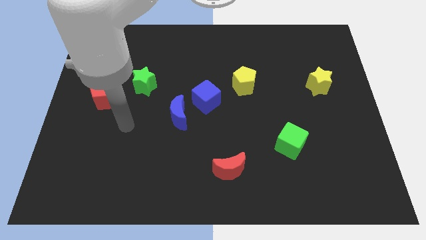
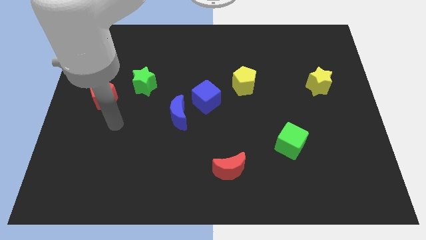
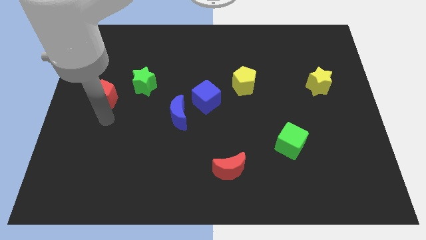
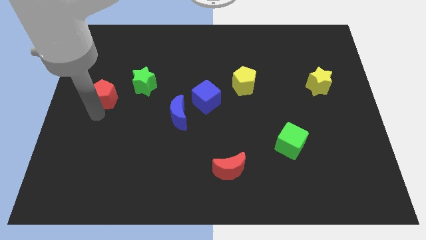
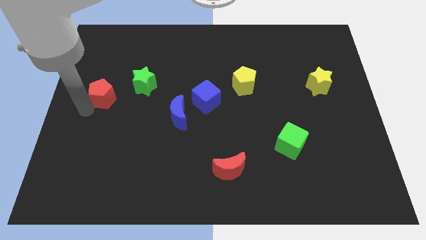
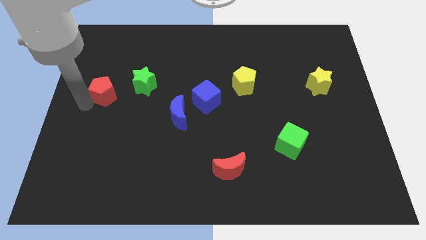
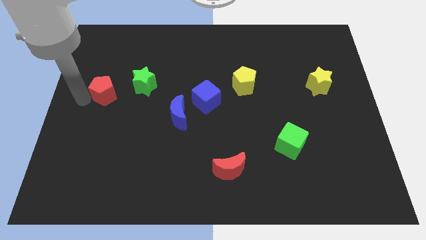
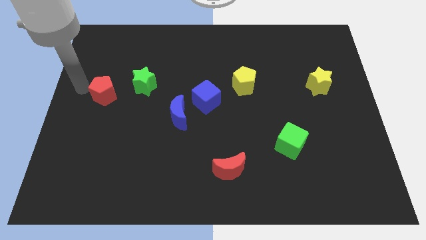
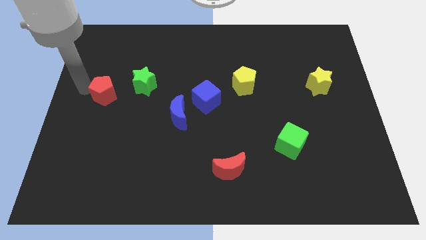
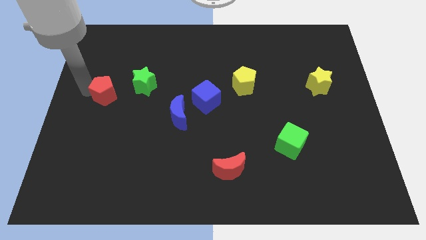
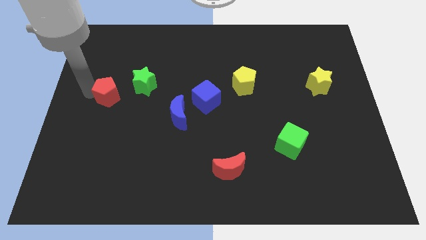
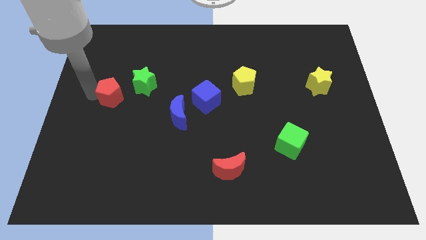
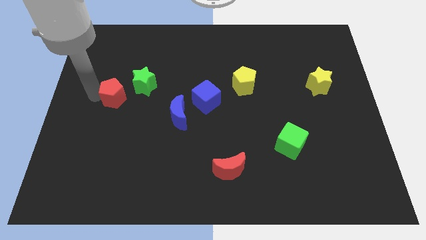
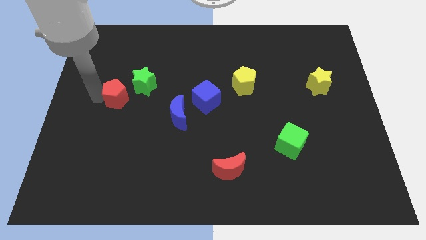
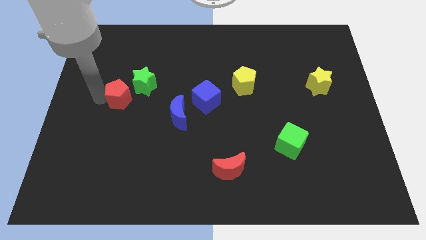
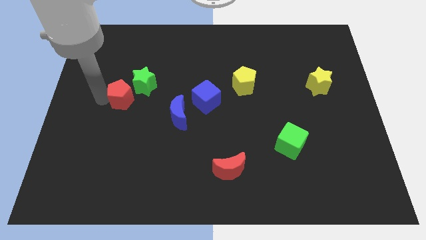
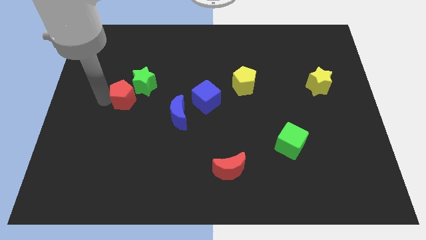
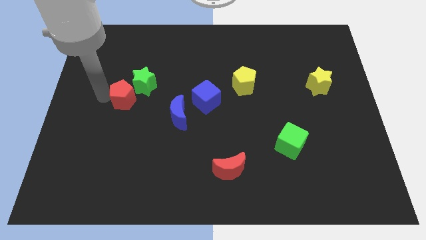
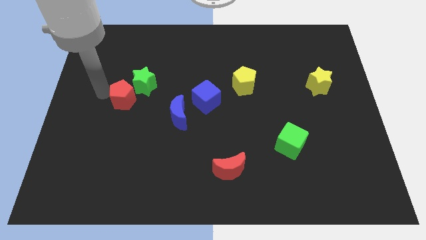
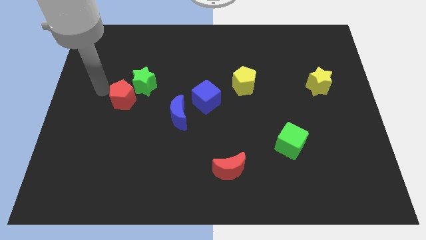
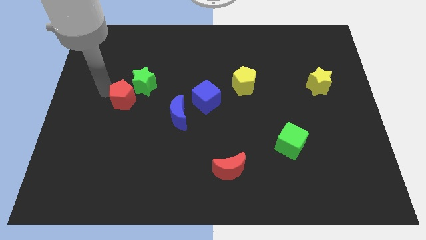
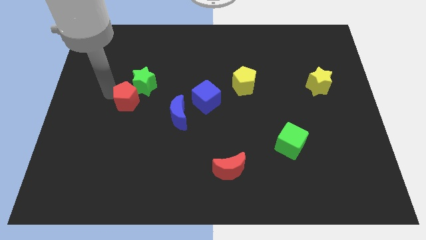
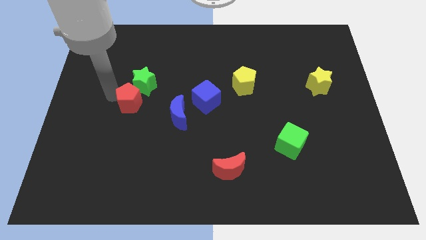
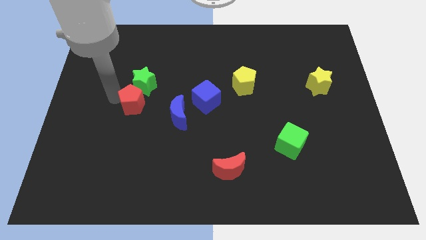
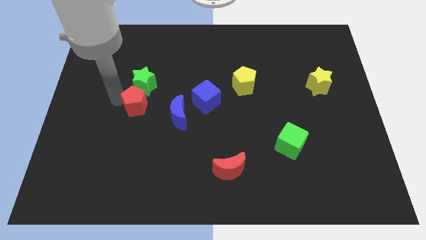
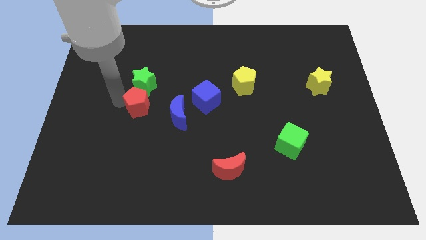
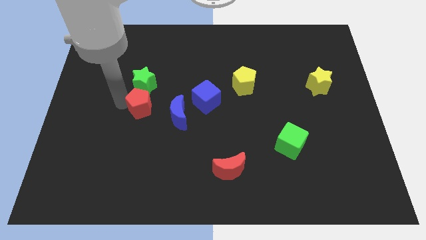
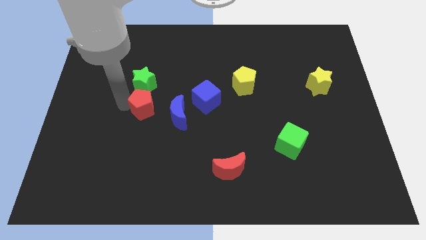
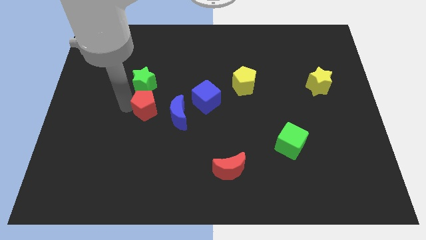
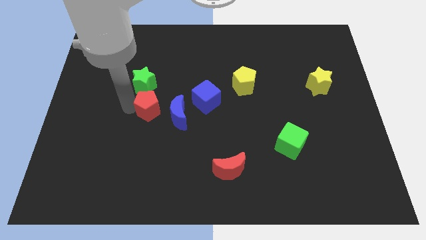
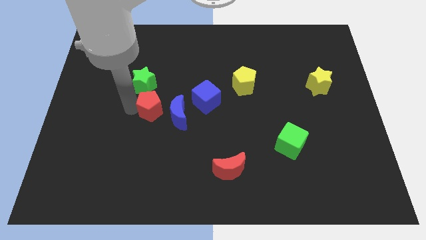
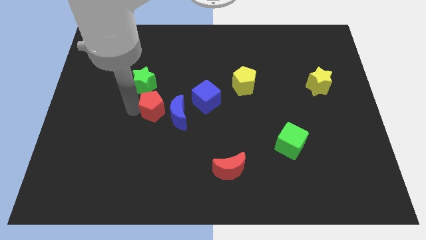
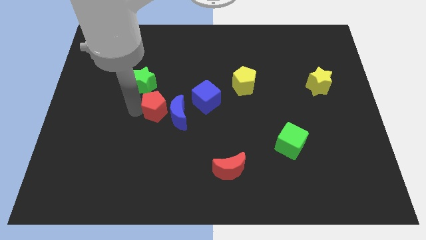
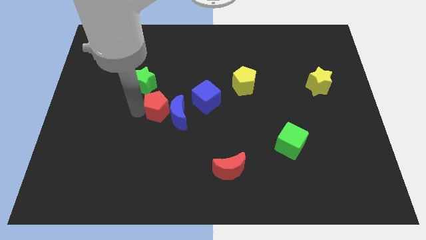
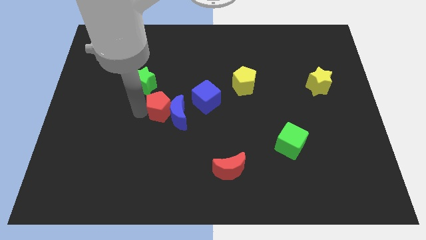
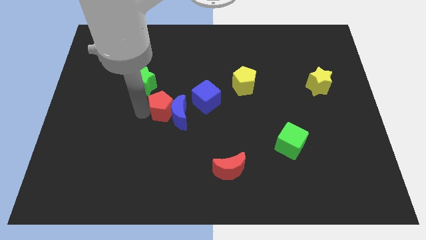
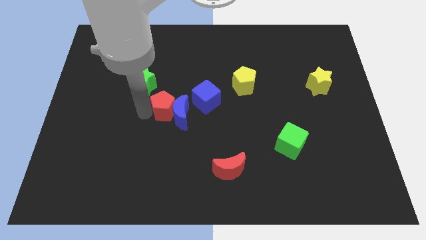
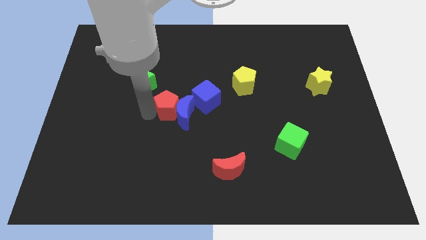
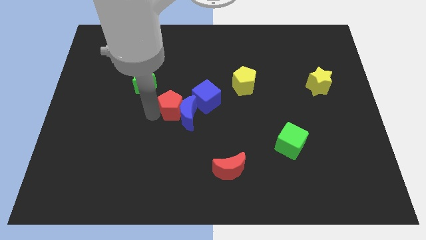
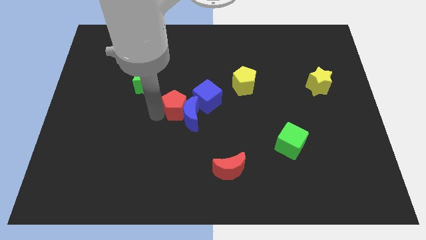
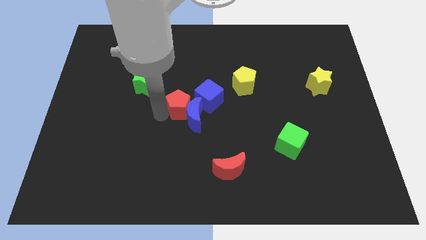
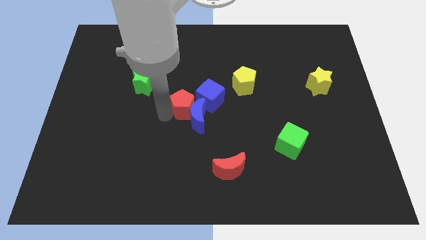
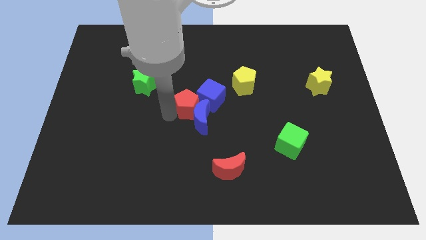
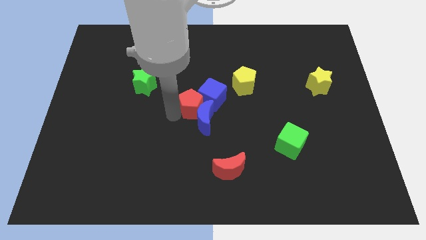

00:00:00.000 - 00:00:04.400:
move the red pentagon right

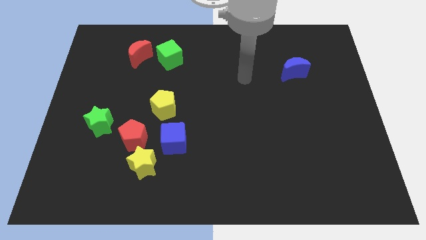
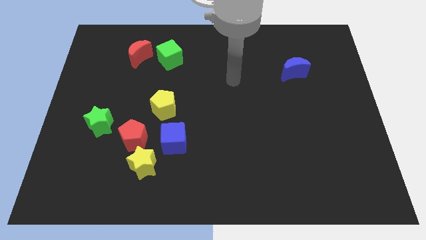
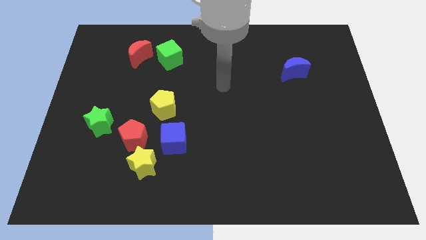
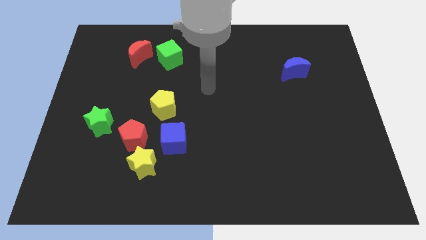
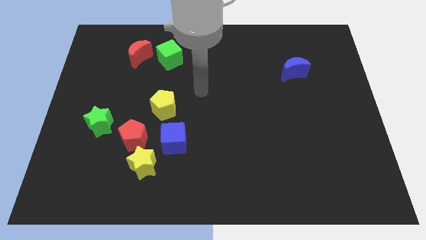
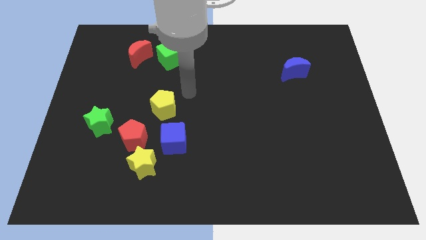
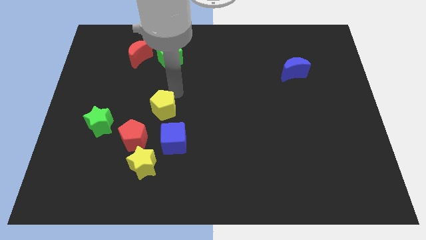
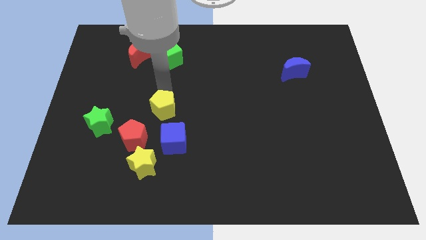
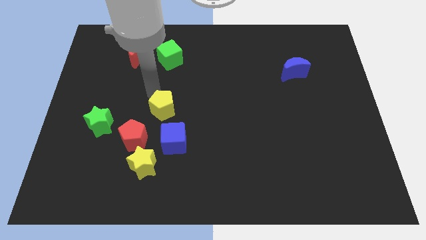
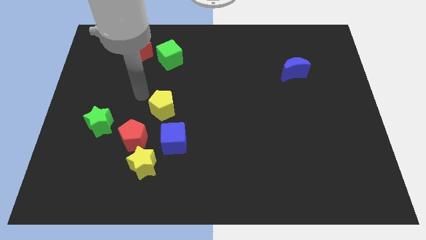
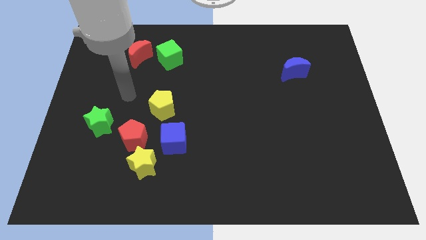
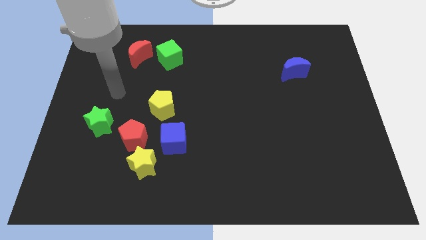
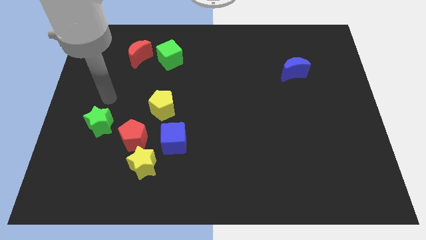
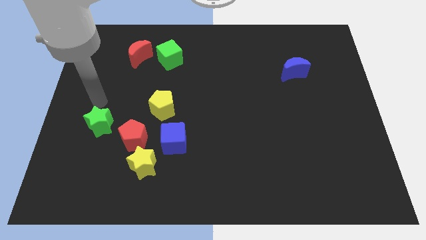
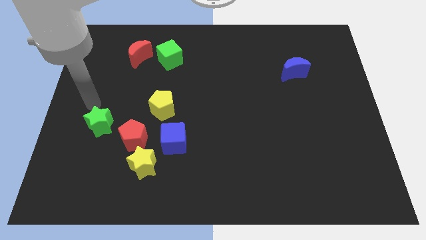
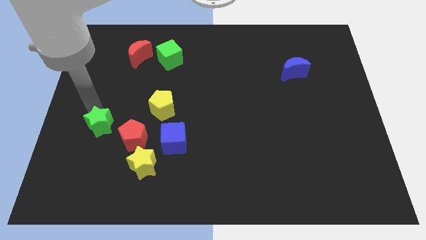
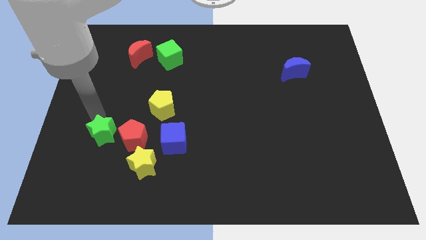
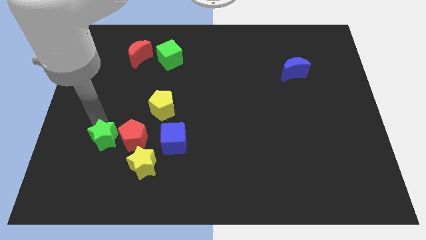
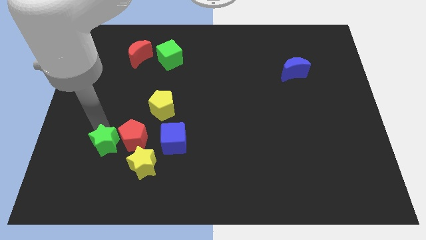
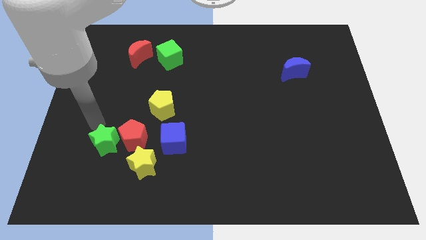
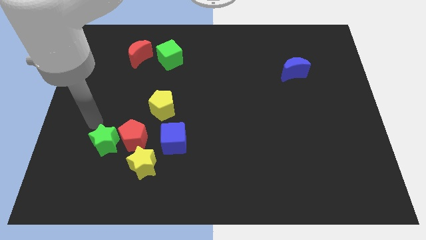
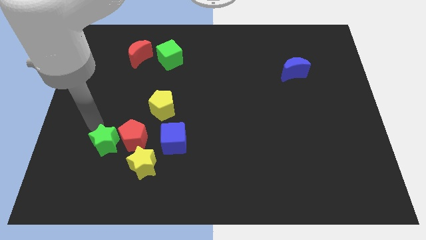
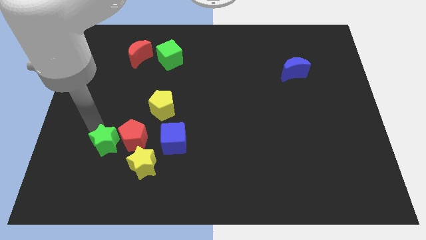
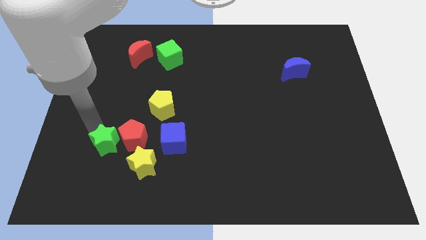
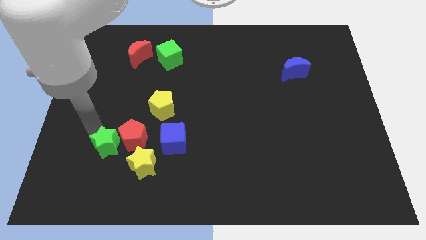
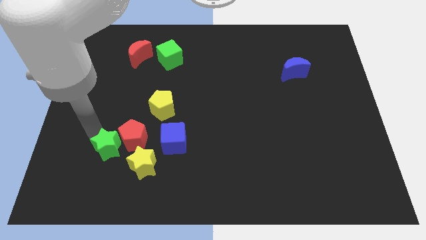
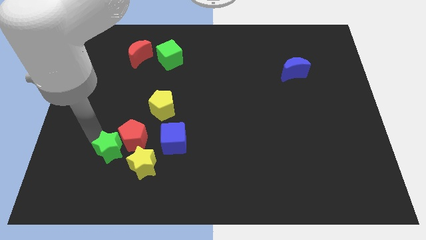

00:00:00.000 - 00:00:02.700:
move the green star somewhat downwards and right diagonally

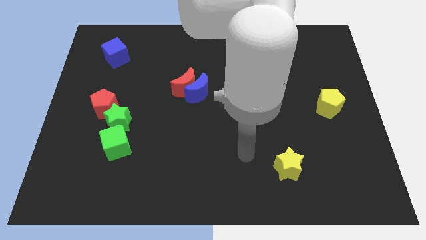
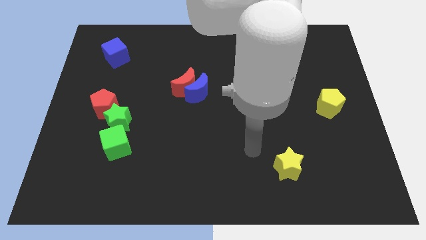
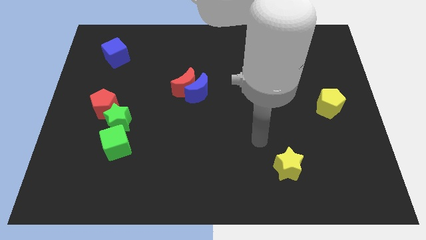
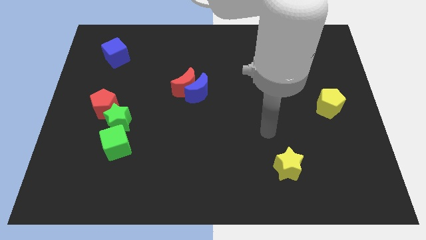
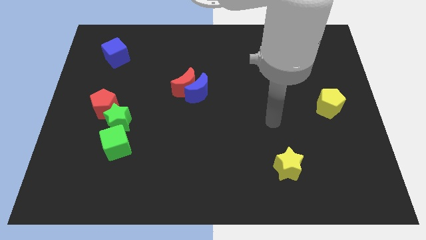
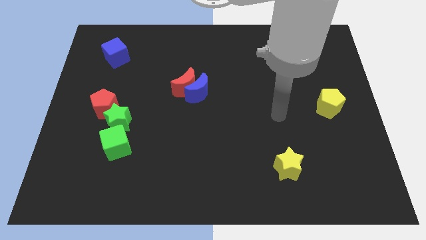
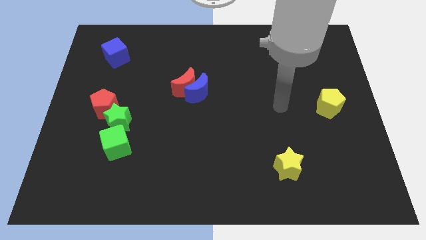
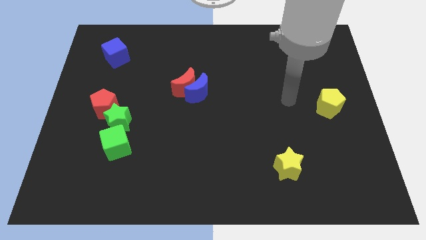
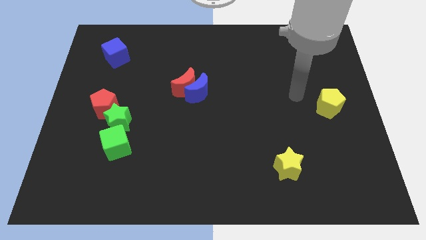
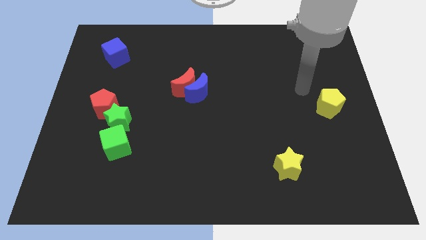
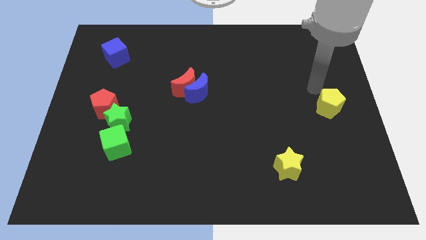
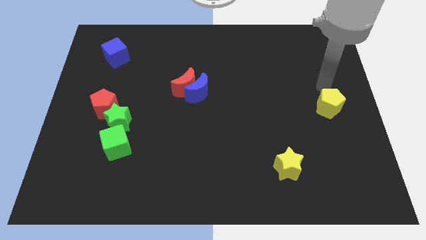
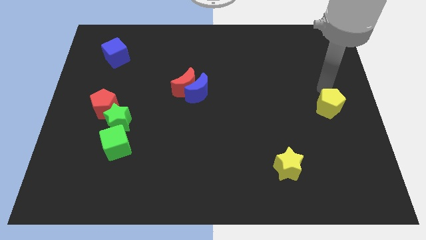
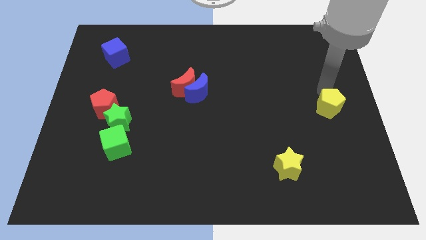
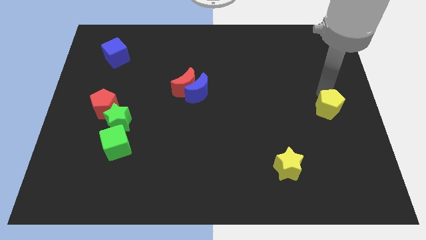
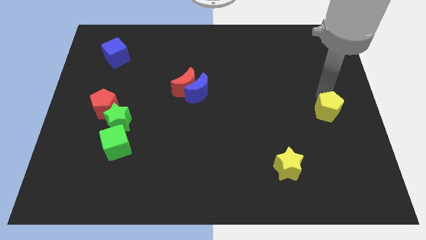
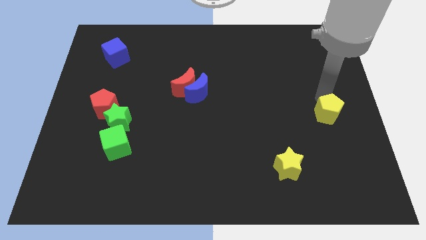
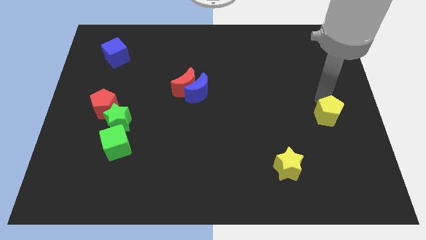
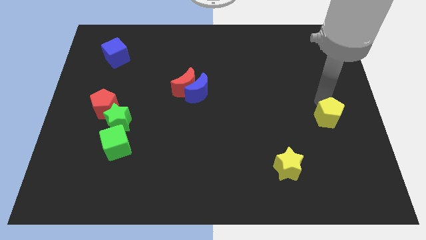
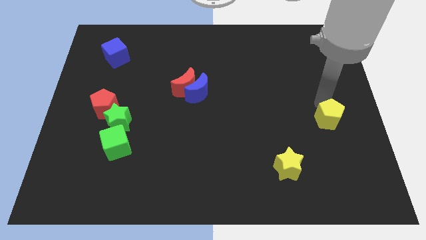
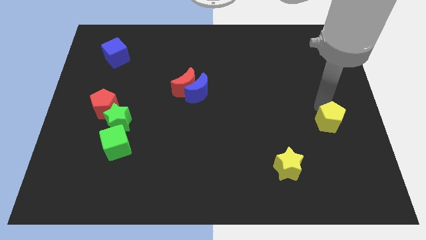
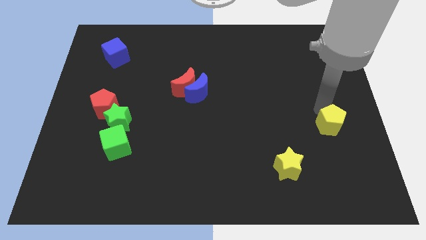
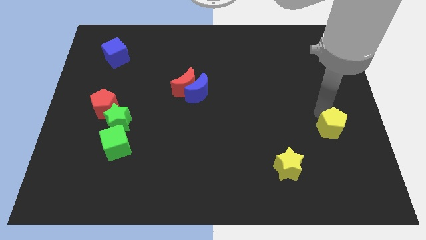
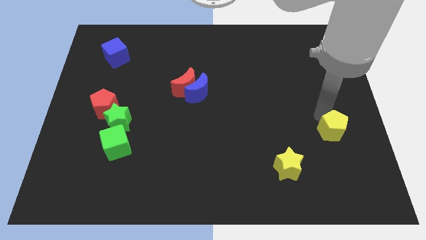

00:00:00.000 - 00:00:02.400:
slightly slide the yellow pentagon down
